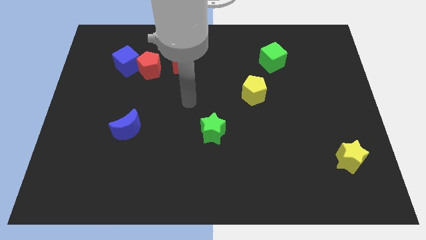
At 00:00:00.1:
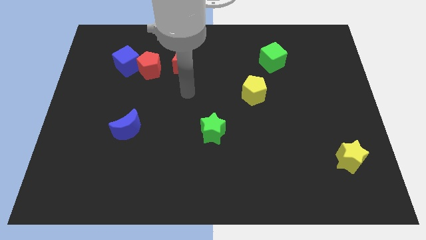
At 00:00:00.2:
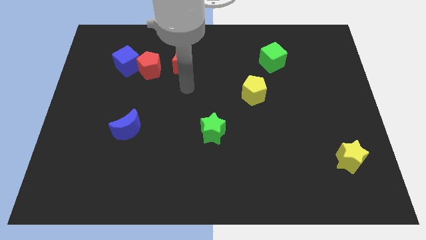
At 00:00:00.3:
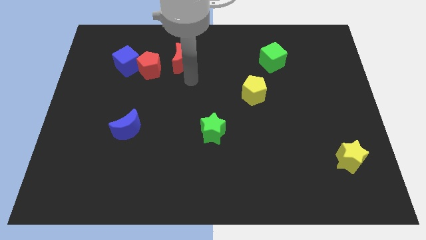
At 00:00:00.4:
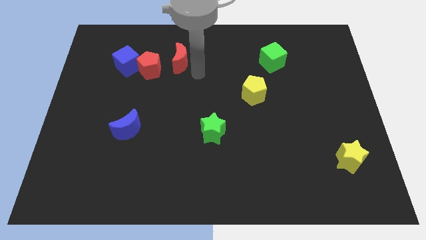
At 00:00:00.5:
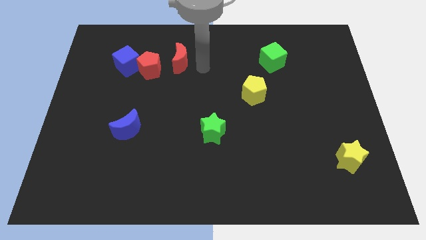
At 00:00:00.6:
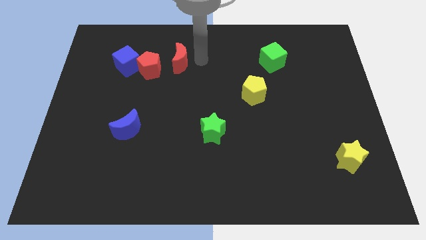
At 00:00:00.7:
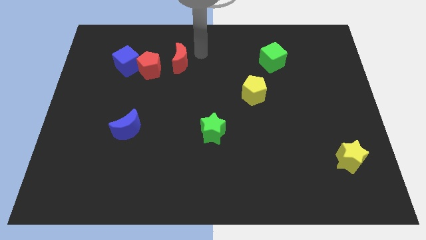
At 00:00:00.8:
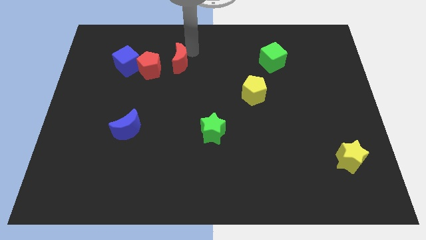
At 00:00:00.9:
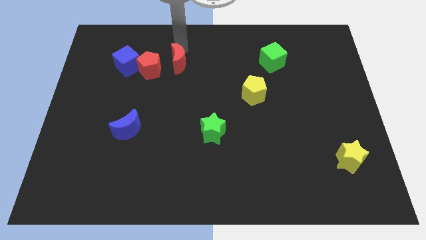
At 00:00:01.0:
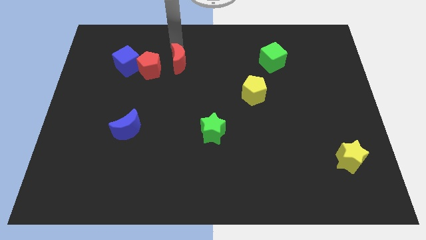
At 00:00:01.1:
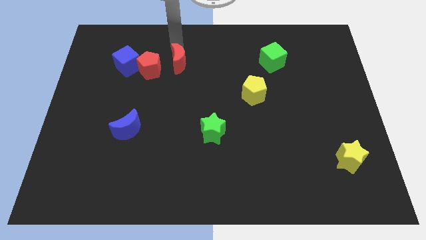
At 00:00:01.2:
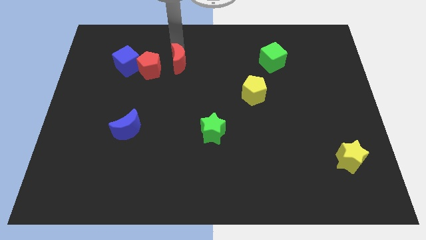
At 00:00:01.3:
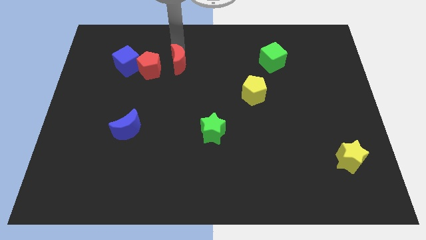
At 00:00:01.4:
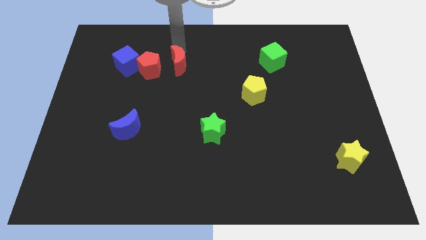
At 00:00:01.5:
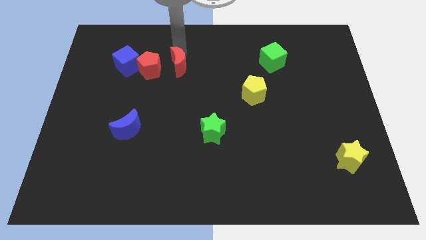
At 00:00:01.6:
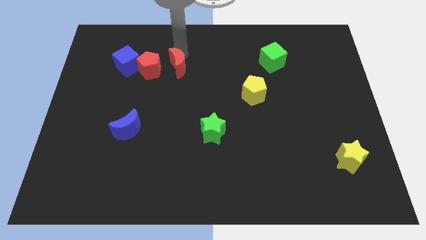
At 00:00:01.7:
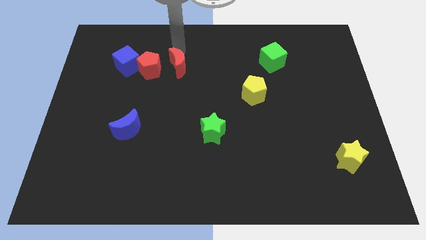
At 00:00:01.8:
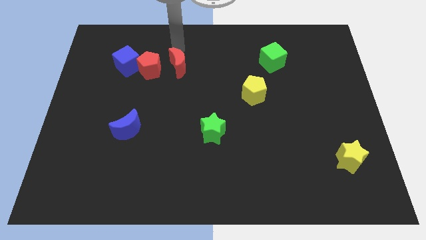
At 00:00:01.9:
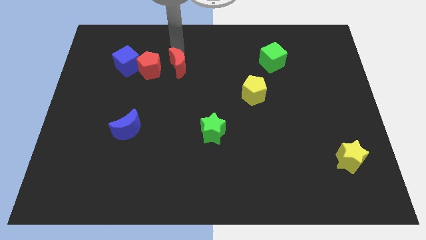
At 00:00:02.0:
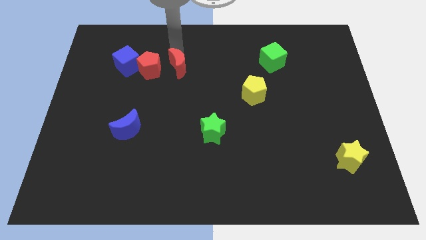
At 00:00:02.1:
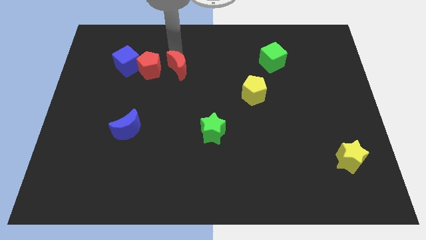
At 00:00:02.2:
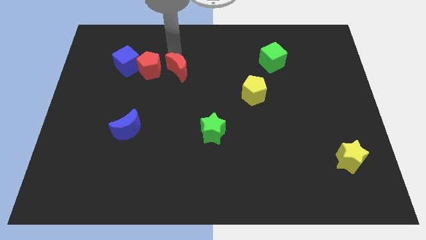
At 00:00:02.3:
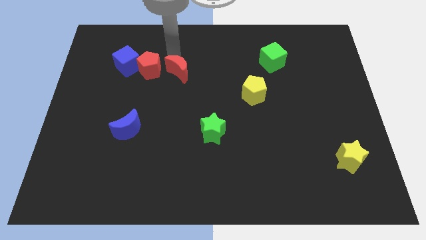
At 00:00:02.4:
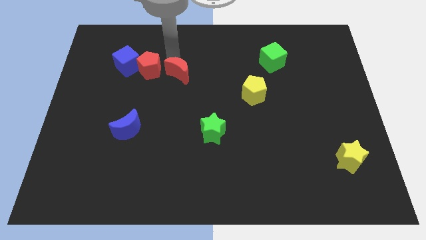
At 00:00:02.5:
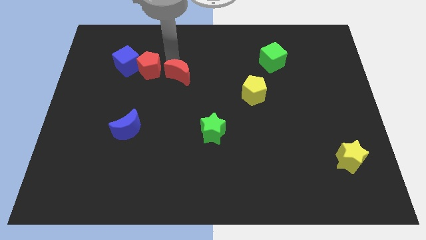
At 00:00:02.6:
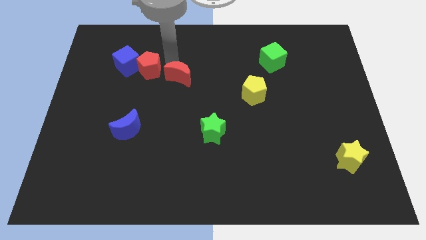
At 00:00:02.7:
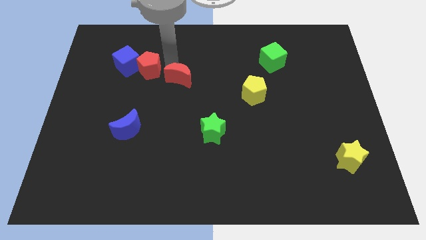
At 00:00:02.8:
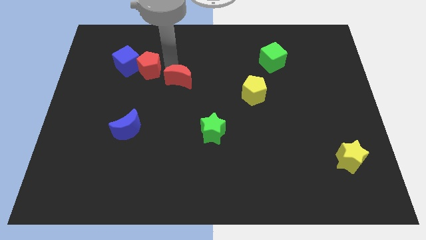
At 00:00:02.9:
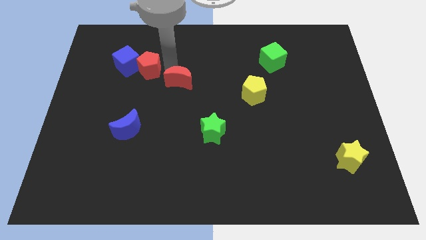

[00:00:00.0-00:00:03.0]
slightly push the red moon down

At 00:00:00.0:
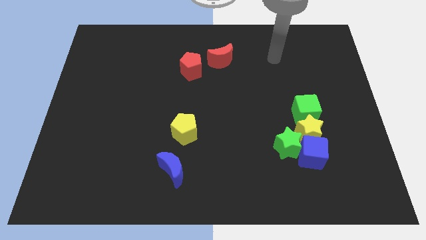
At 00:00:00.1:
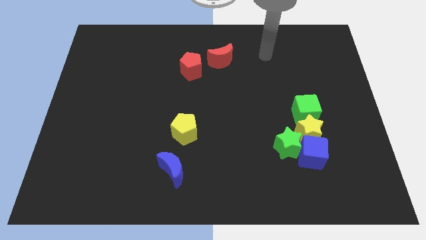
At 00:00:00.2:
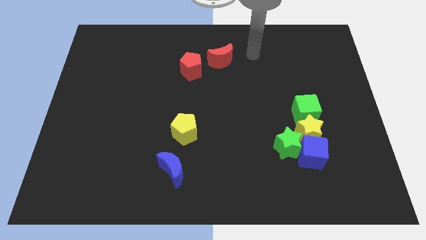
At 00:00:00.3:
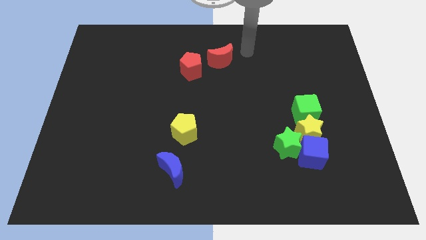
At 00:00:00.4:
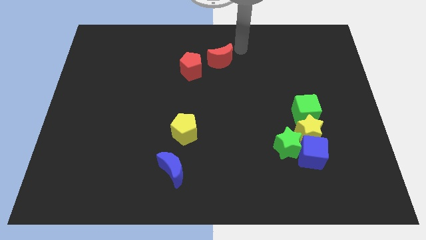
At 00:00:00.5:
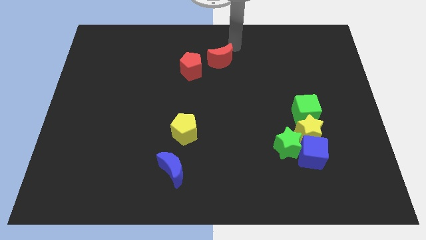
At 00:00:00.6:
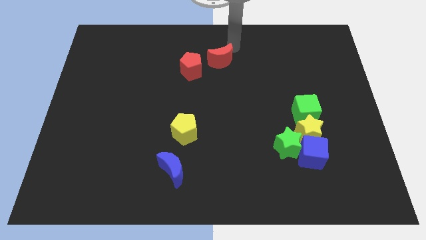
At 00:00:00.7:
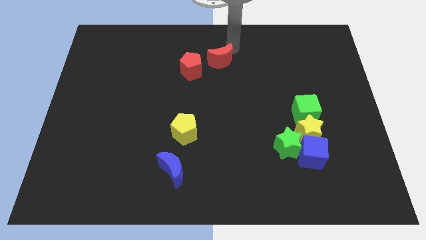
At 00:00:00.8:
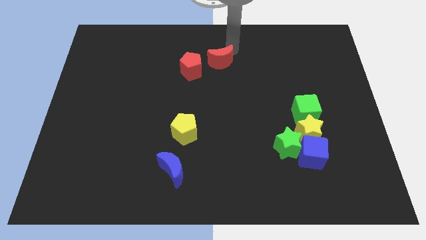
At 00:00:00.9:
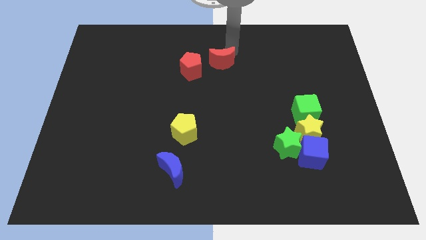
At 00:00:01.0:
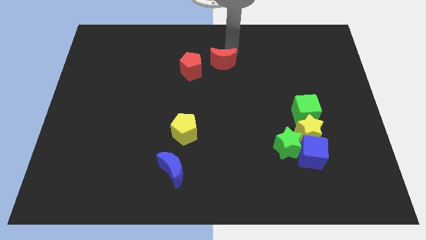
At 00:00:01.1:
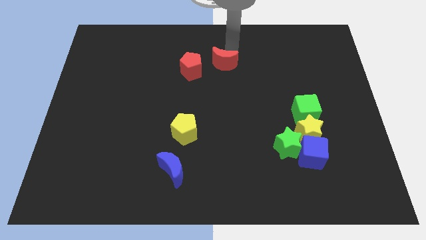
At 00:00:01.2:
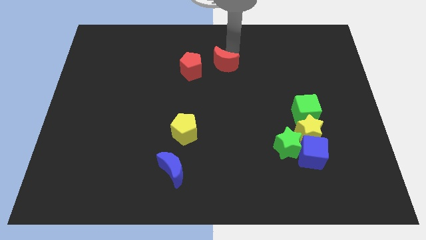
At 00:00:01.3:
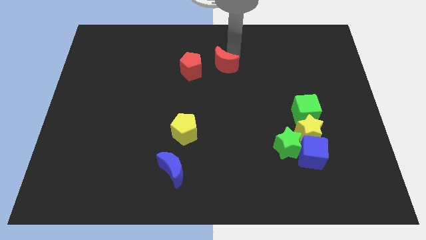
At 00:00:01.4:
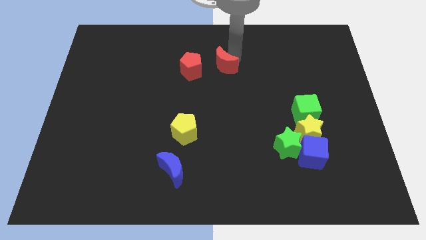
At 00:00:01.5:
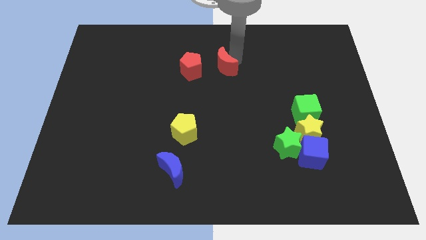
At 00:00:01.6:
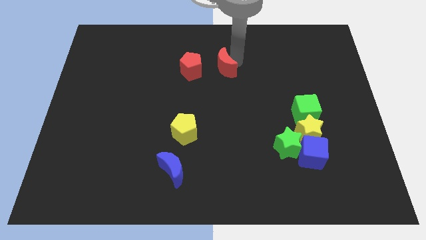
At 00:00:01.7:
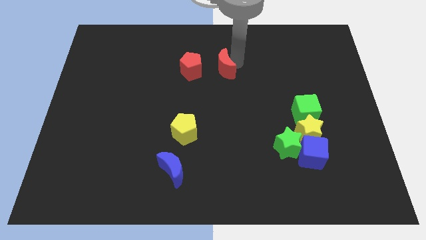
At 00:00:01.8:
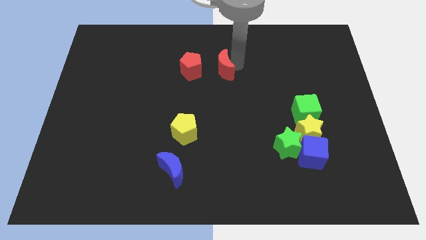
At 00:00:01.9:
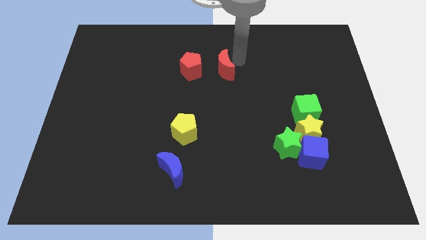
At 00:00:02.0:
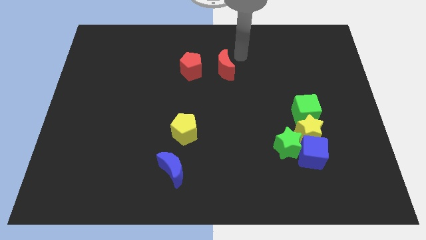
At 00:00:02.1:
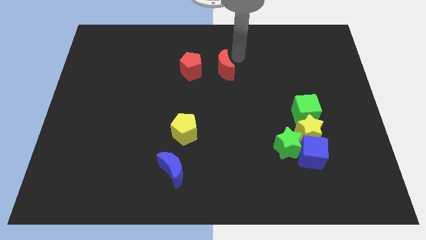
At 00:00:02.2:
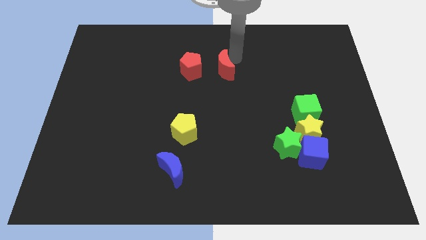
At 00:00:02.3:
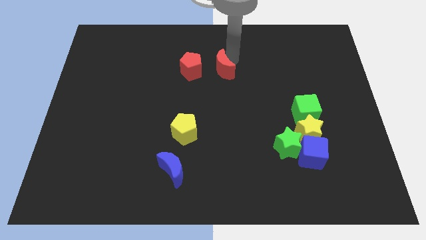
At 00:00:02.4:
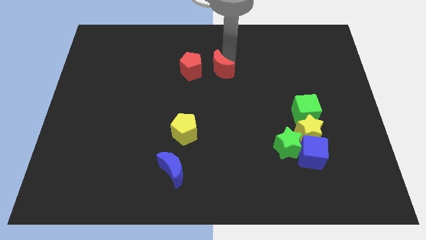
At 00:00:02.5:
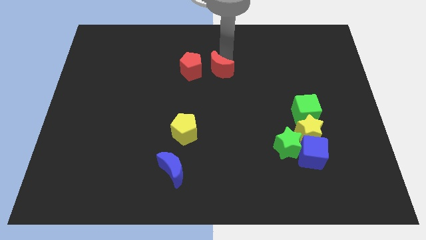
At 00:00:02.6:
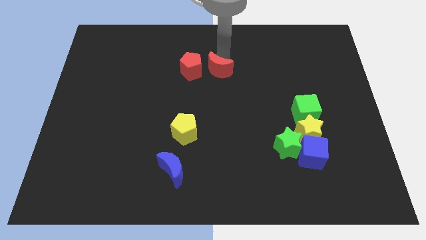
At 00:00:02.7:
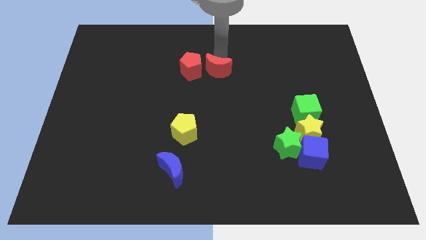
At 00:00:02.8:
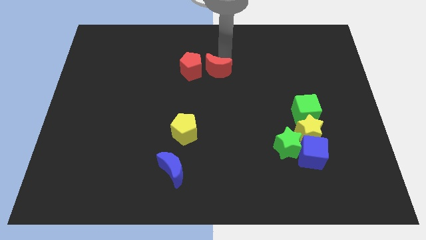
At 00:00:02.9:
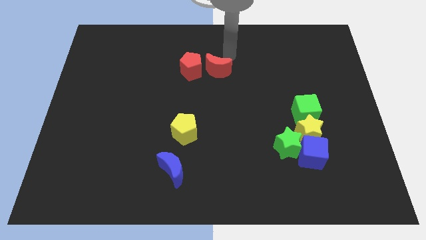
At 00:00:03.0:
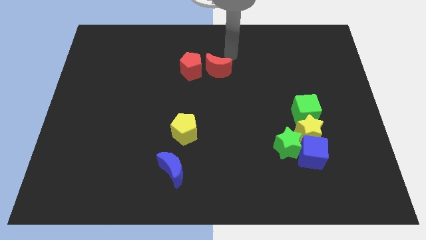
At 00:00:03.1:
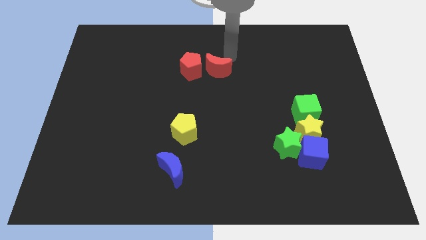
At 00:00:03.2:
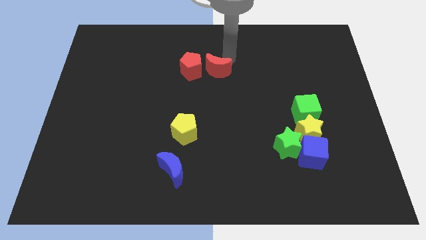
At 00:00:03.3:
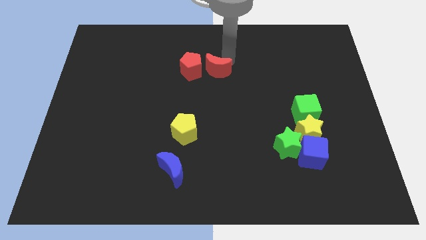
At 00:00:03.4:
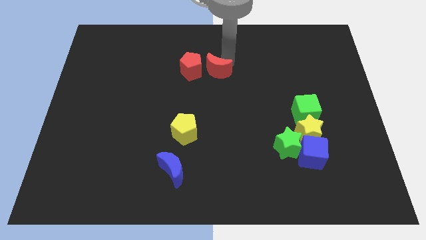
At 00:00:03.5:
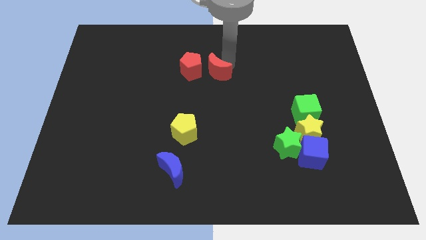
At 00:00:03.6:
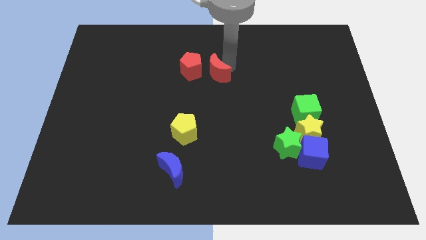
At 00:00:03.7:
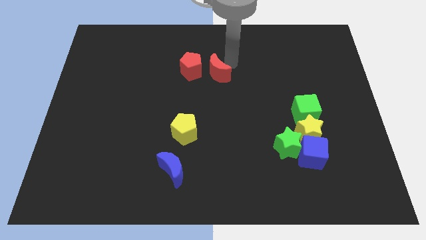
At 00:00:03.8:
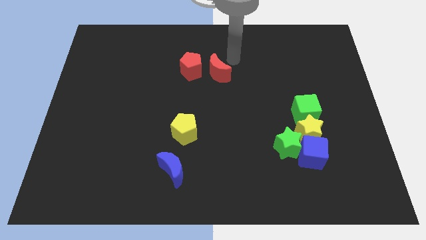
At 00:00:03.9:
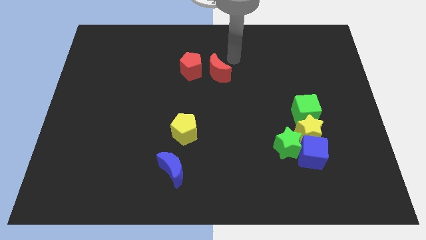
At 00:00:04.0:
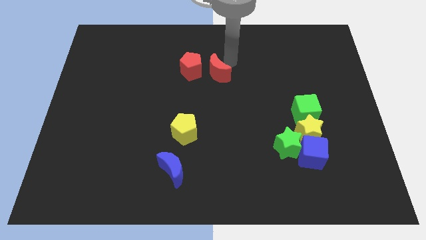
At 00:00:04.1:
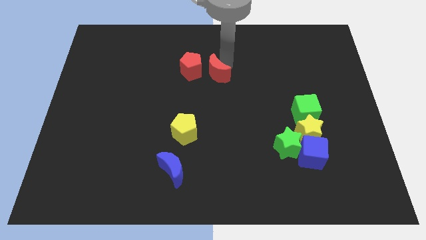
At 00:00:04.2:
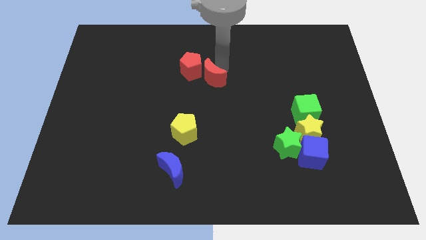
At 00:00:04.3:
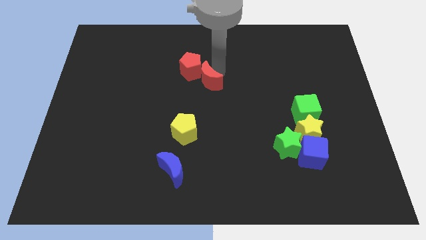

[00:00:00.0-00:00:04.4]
push the red moon a bit downwards and then to the left

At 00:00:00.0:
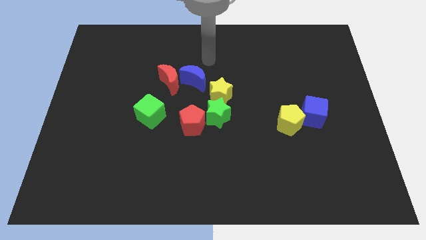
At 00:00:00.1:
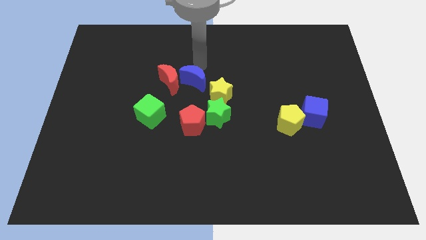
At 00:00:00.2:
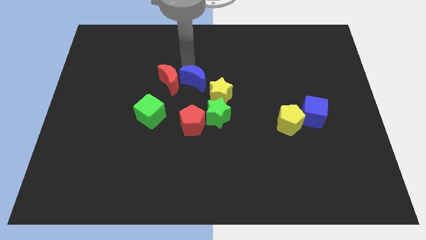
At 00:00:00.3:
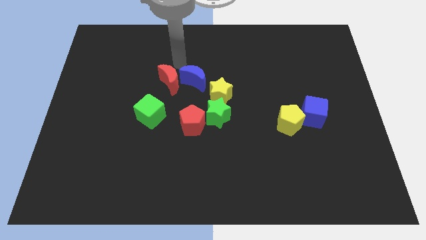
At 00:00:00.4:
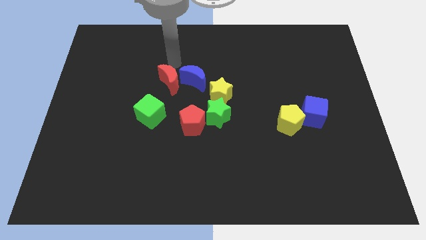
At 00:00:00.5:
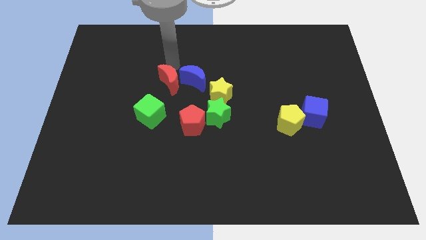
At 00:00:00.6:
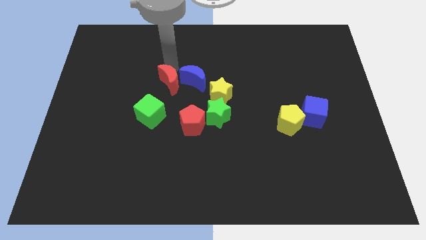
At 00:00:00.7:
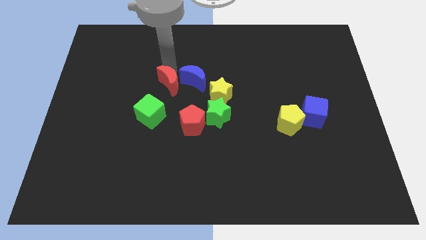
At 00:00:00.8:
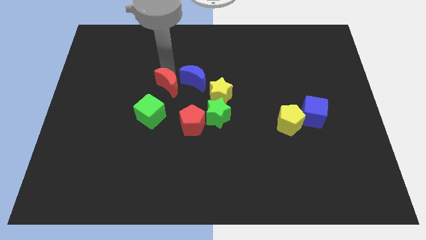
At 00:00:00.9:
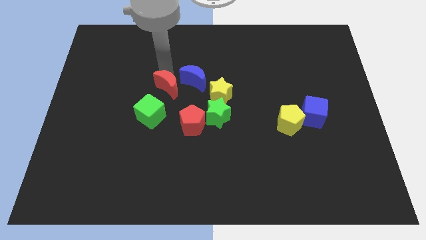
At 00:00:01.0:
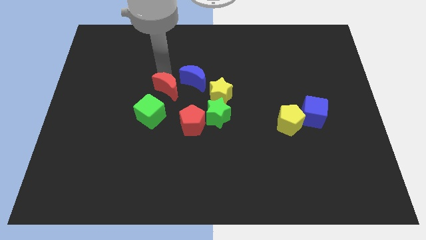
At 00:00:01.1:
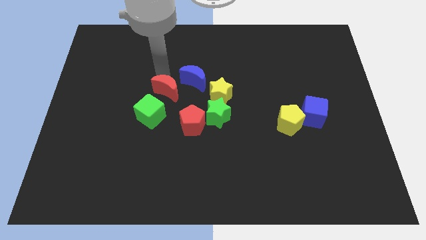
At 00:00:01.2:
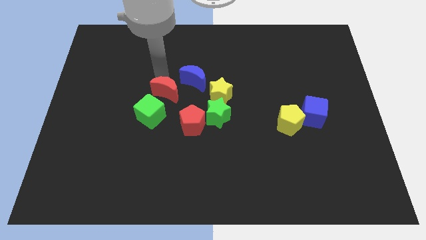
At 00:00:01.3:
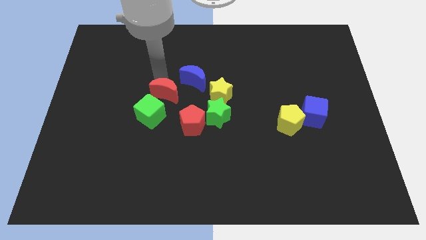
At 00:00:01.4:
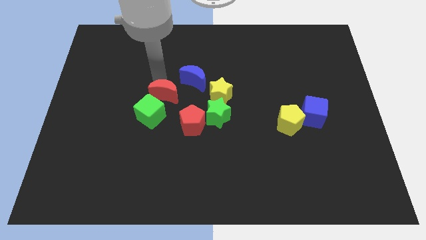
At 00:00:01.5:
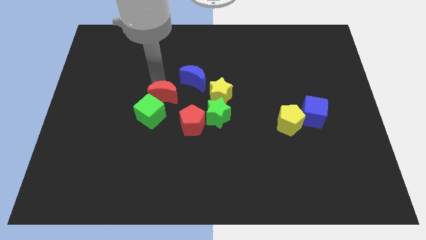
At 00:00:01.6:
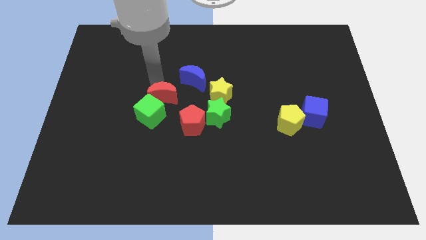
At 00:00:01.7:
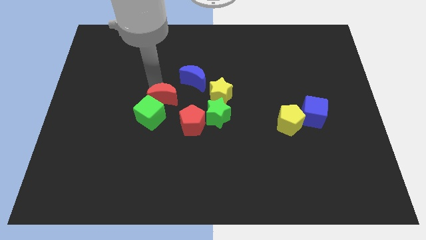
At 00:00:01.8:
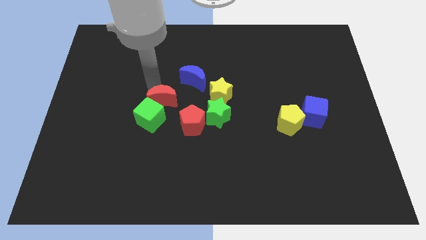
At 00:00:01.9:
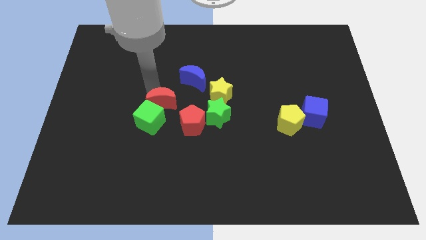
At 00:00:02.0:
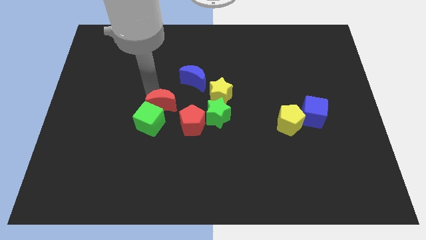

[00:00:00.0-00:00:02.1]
push the red moon slightly downwards
